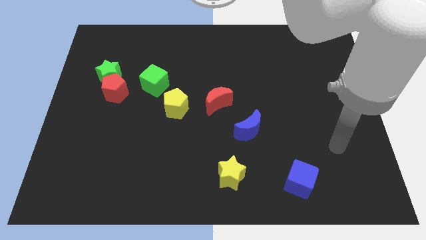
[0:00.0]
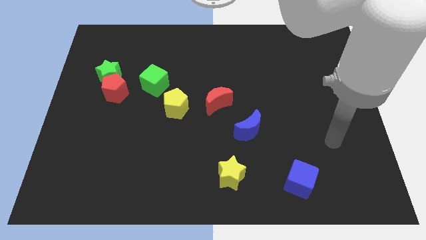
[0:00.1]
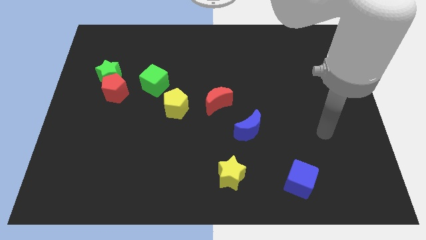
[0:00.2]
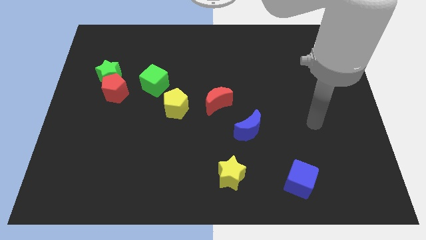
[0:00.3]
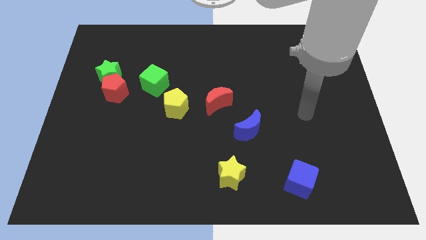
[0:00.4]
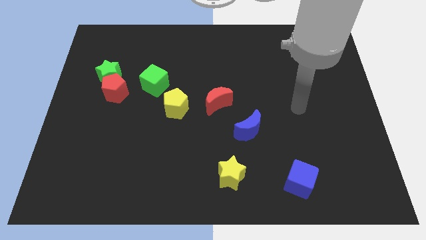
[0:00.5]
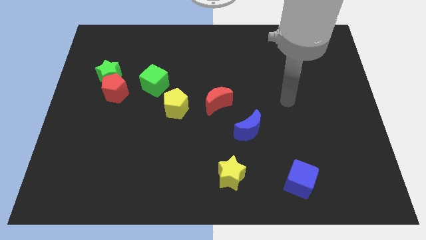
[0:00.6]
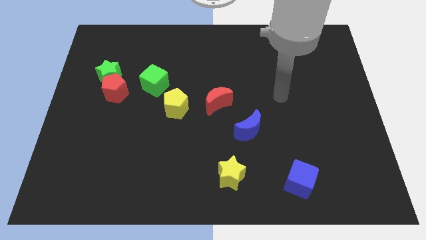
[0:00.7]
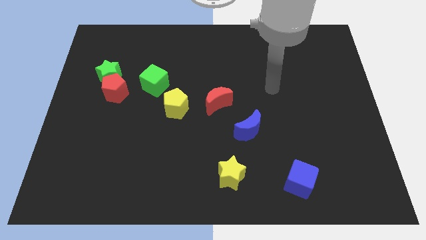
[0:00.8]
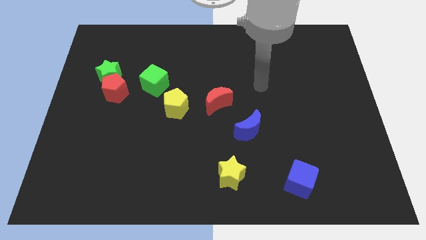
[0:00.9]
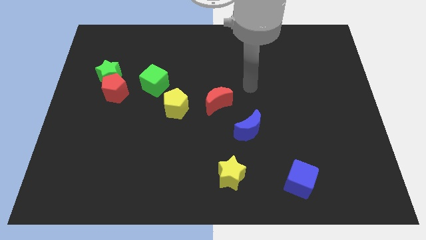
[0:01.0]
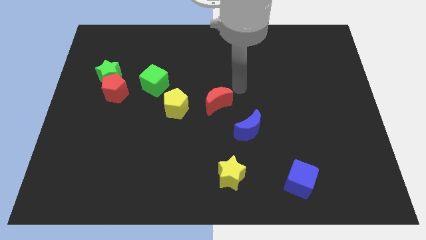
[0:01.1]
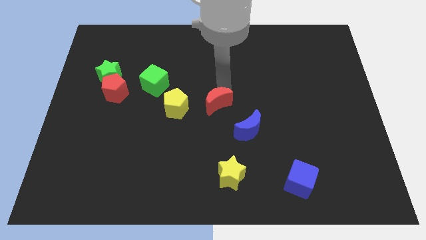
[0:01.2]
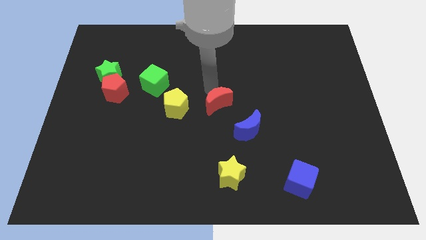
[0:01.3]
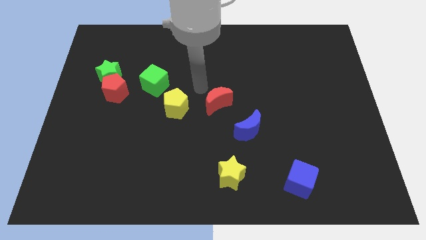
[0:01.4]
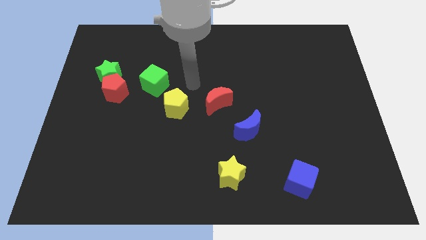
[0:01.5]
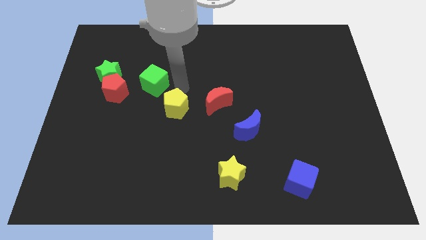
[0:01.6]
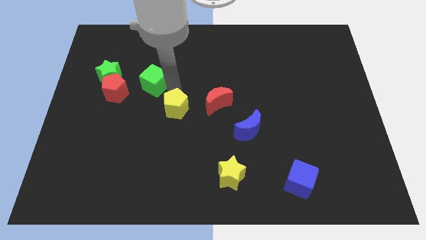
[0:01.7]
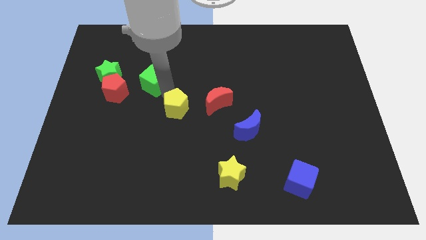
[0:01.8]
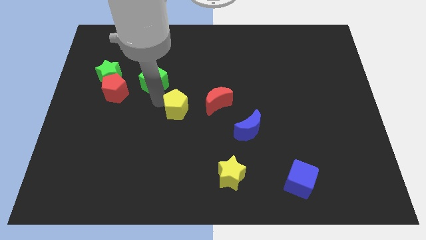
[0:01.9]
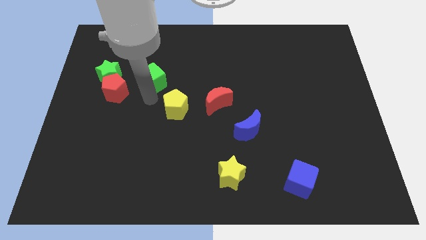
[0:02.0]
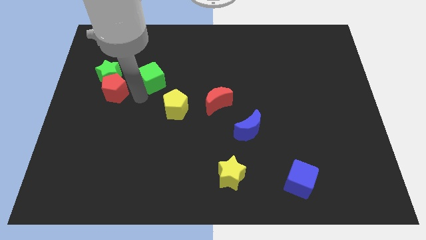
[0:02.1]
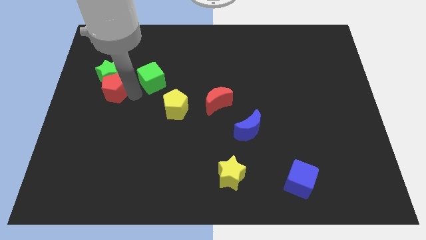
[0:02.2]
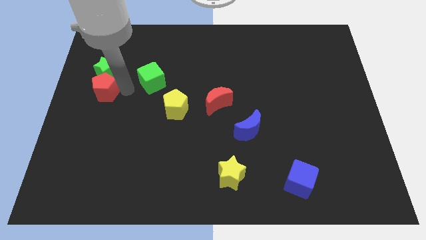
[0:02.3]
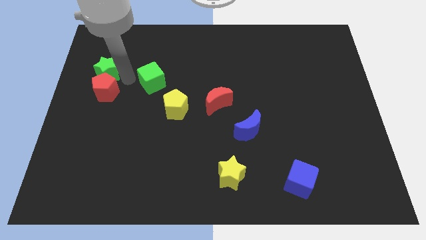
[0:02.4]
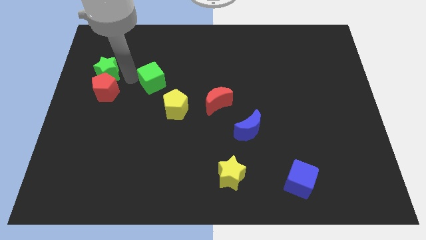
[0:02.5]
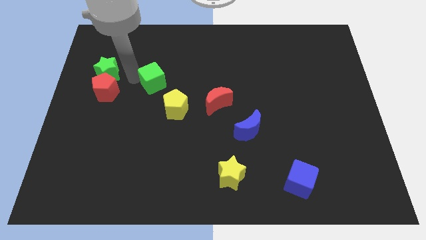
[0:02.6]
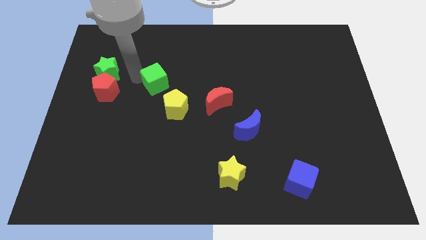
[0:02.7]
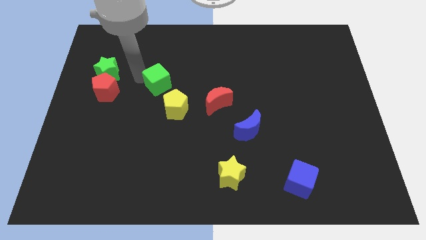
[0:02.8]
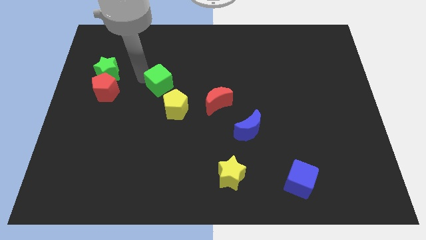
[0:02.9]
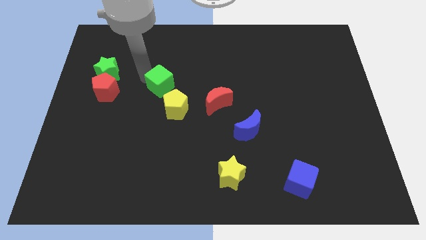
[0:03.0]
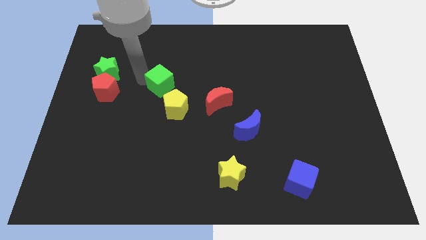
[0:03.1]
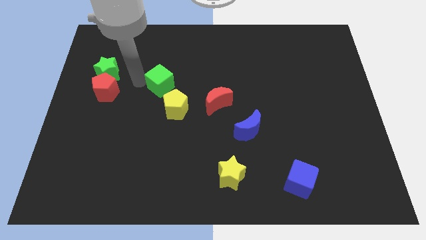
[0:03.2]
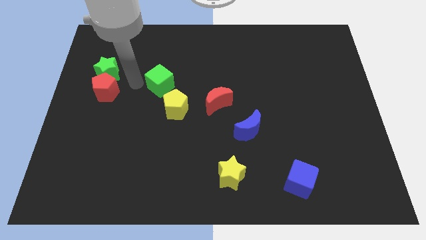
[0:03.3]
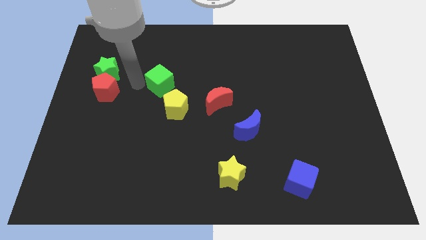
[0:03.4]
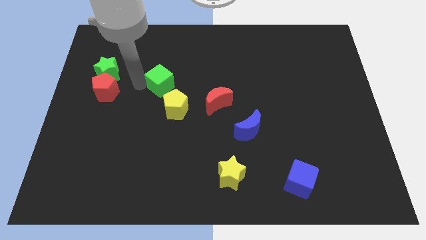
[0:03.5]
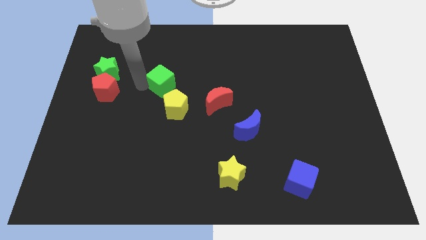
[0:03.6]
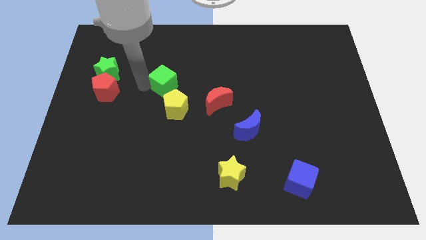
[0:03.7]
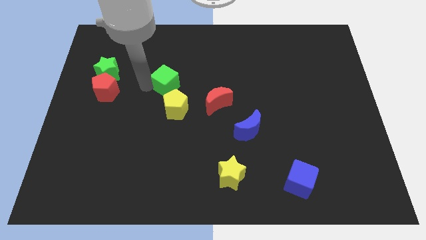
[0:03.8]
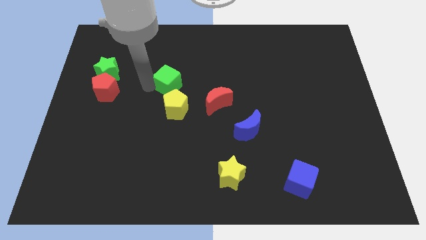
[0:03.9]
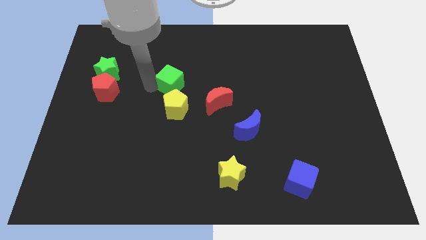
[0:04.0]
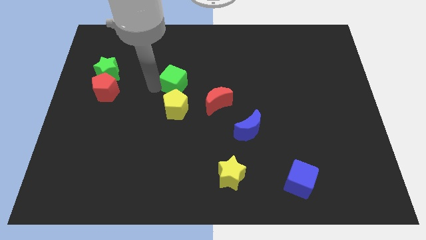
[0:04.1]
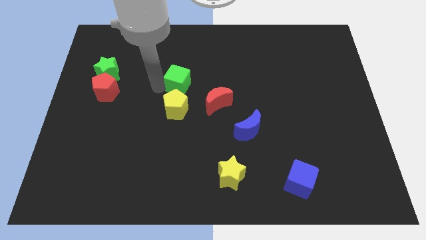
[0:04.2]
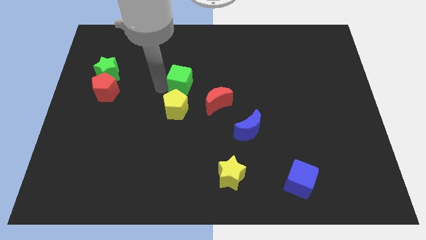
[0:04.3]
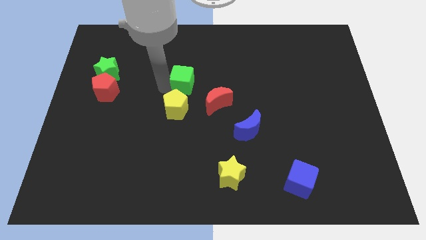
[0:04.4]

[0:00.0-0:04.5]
slightly push the green cube to the right

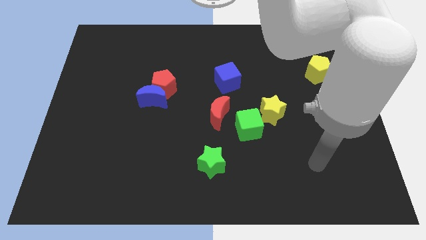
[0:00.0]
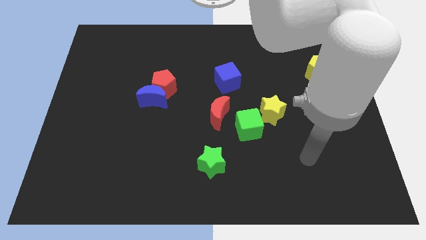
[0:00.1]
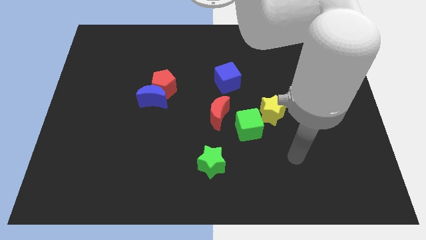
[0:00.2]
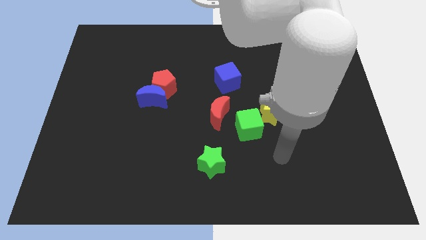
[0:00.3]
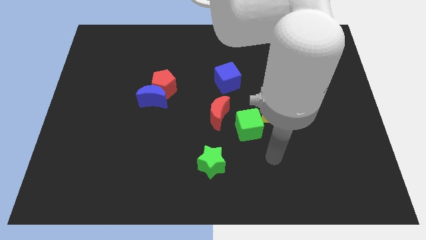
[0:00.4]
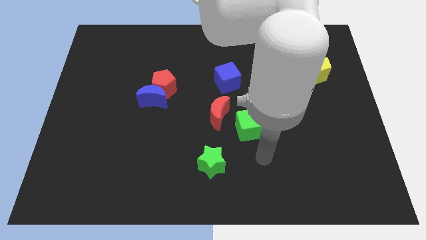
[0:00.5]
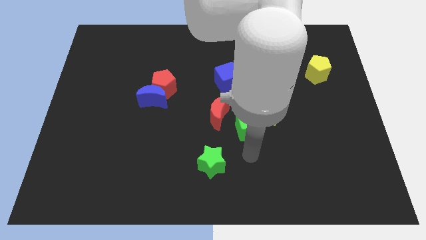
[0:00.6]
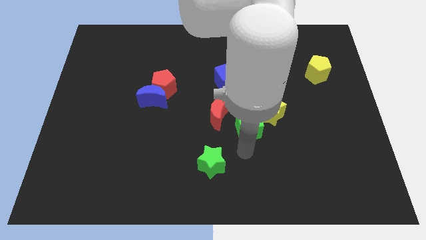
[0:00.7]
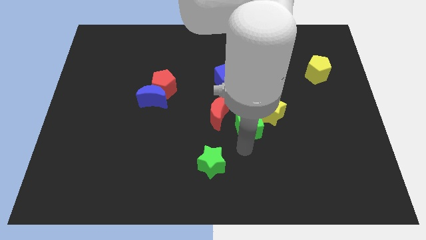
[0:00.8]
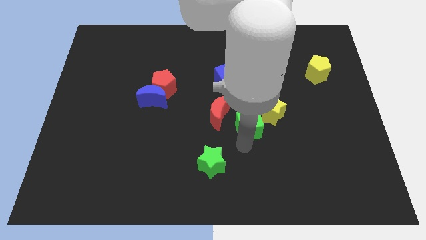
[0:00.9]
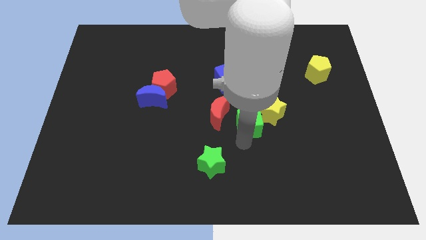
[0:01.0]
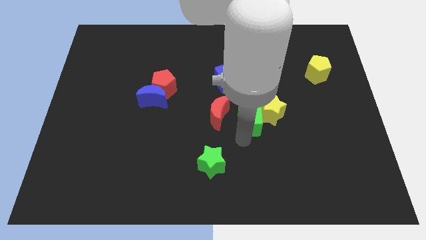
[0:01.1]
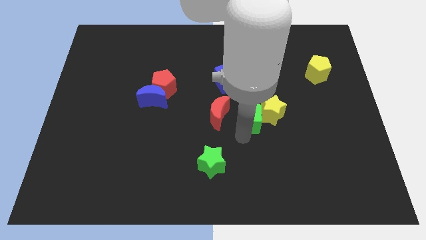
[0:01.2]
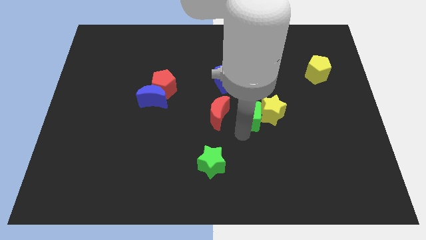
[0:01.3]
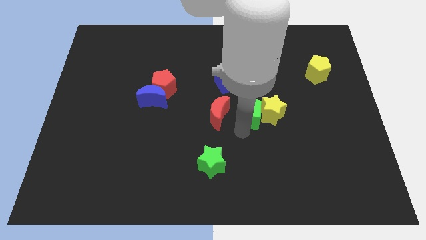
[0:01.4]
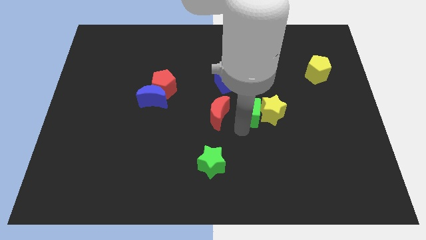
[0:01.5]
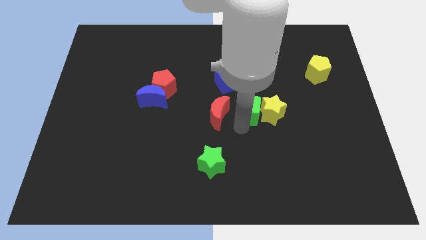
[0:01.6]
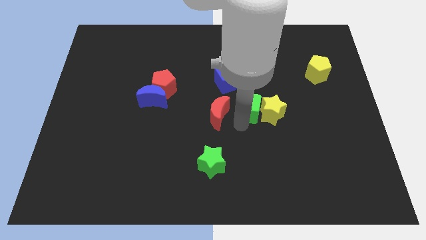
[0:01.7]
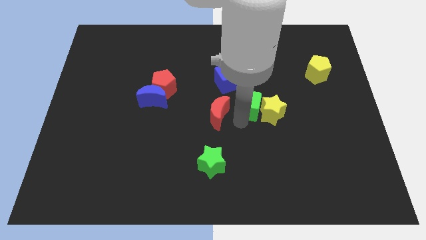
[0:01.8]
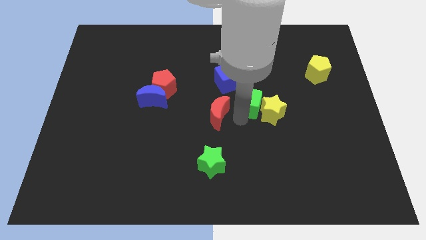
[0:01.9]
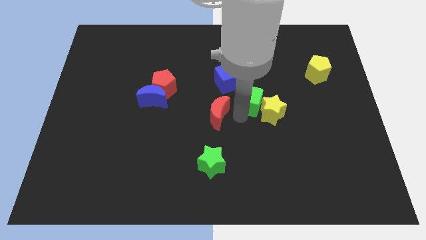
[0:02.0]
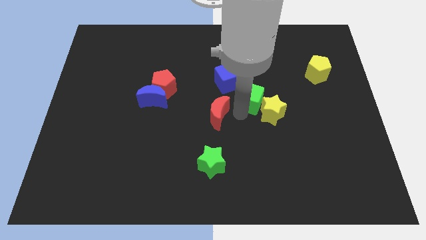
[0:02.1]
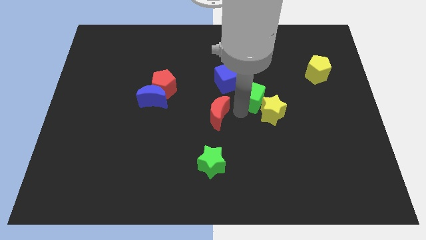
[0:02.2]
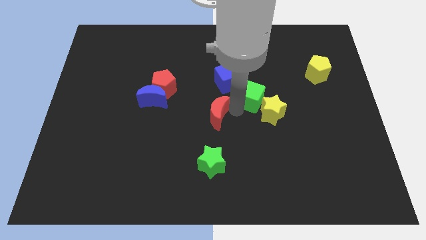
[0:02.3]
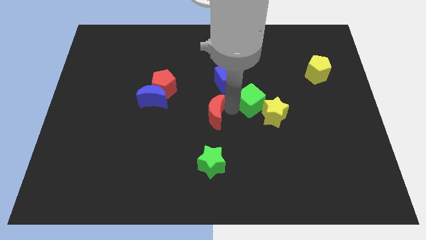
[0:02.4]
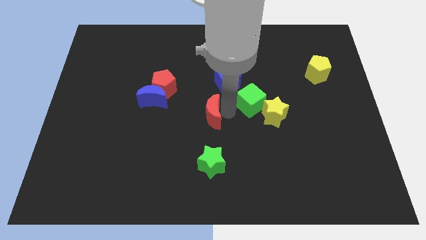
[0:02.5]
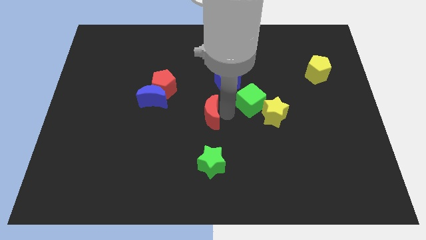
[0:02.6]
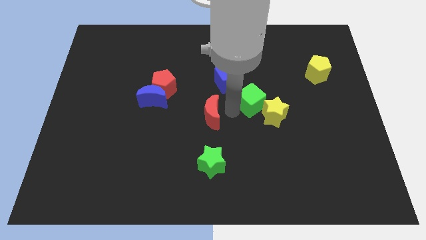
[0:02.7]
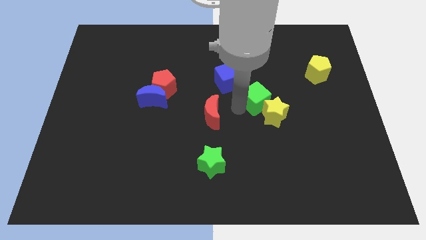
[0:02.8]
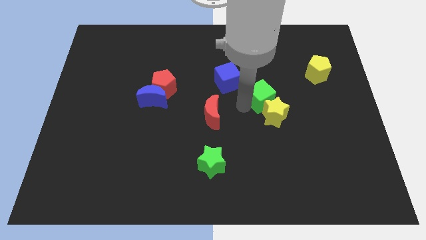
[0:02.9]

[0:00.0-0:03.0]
push the green cube diagonally up and to the right a bit

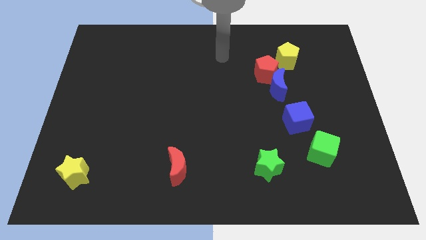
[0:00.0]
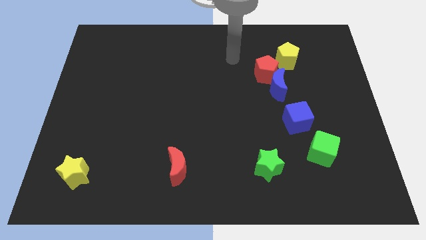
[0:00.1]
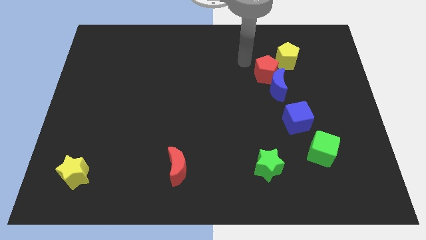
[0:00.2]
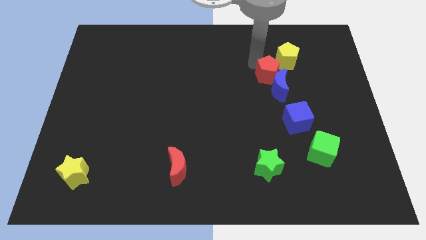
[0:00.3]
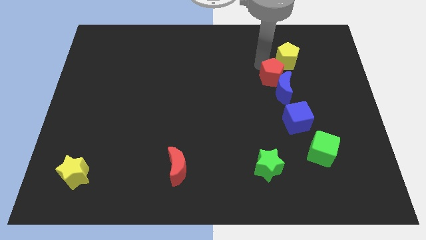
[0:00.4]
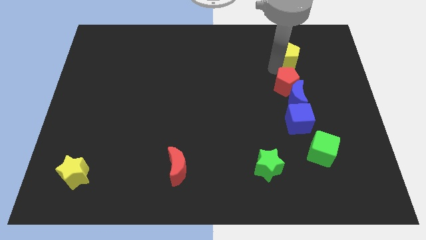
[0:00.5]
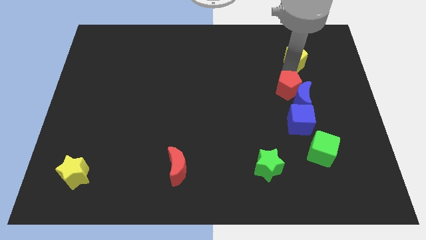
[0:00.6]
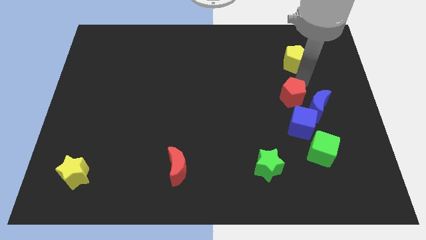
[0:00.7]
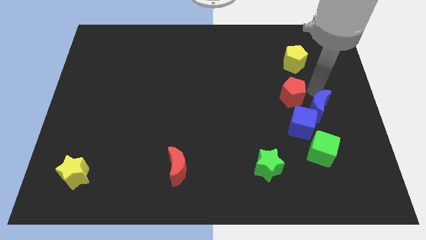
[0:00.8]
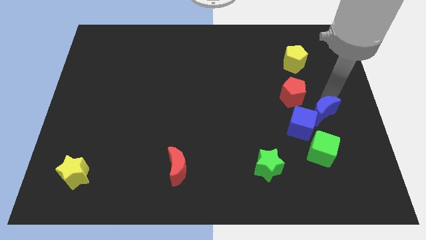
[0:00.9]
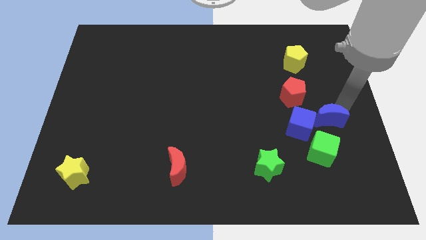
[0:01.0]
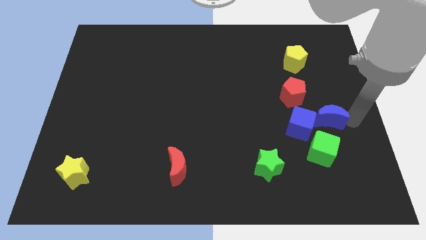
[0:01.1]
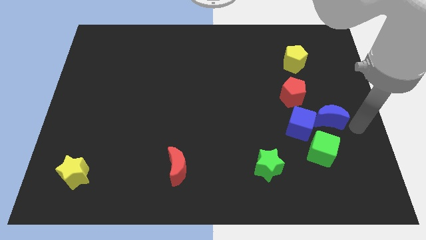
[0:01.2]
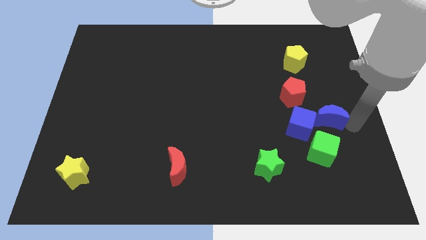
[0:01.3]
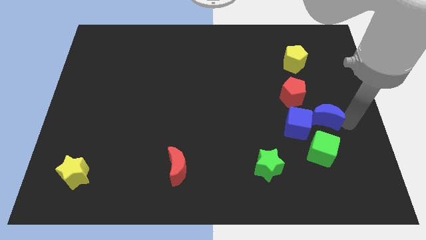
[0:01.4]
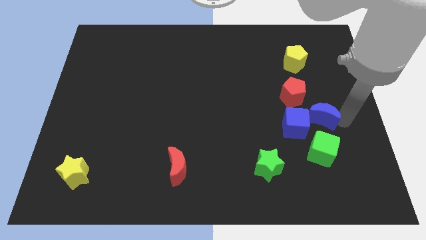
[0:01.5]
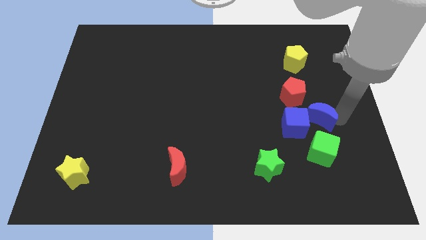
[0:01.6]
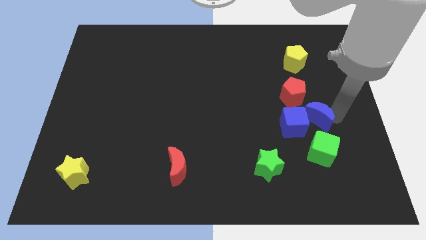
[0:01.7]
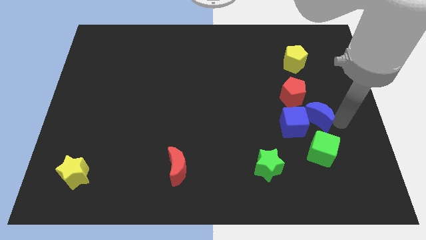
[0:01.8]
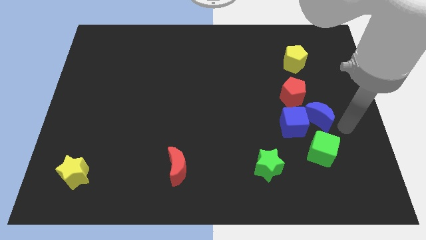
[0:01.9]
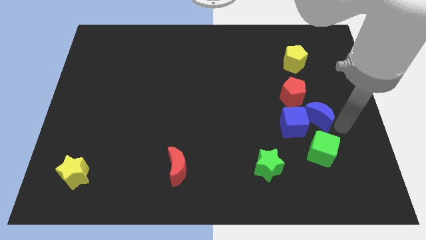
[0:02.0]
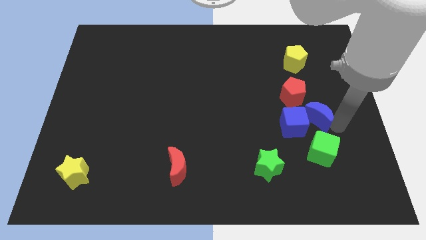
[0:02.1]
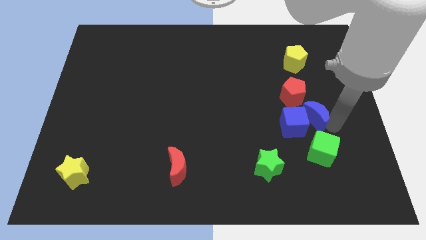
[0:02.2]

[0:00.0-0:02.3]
push the blue moon somewhat down
